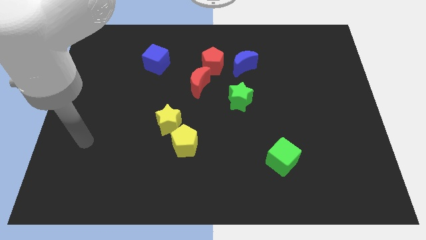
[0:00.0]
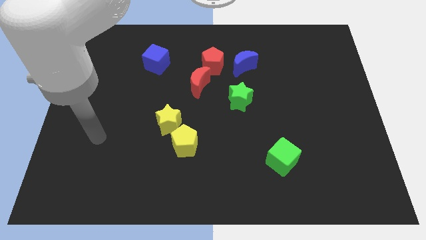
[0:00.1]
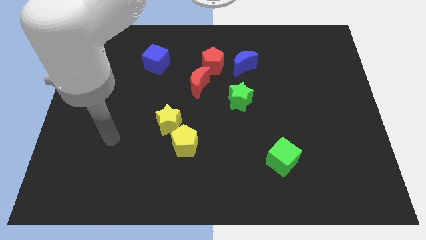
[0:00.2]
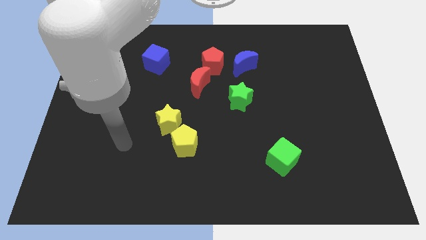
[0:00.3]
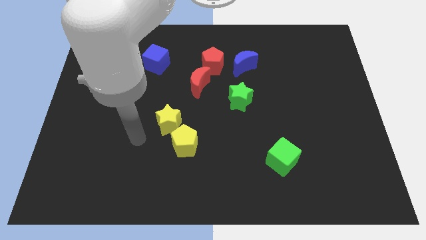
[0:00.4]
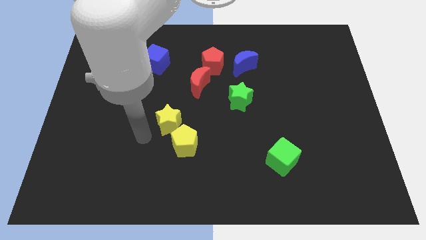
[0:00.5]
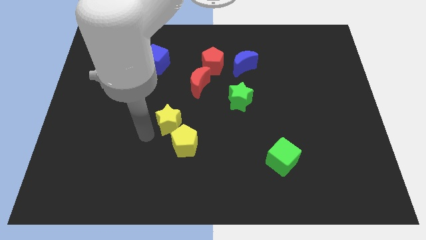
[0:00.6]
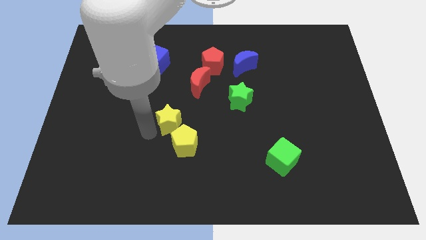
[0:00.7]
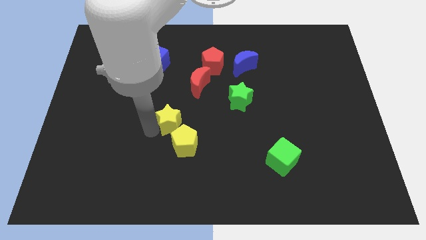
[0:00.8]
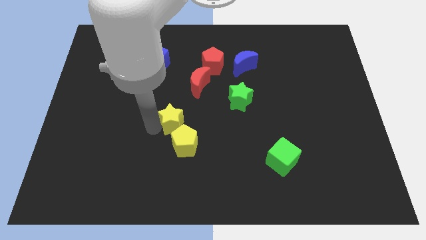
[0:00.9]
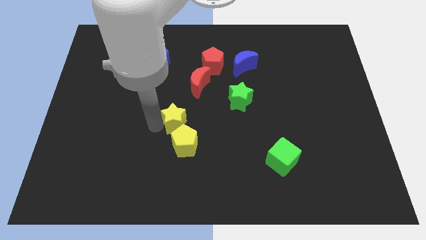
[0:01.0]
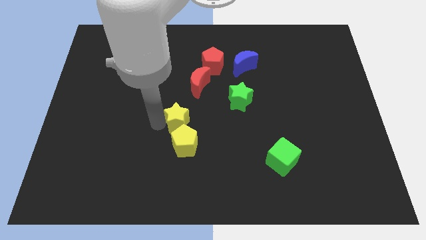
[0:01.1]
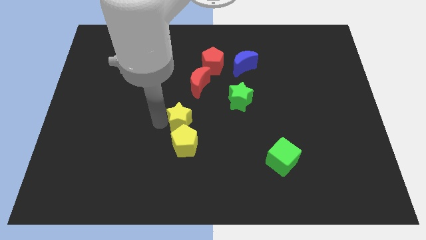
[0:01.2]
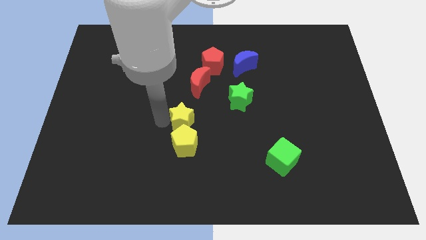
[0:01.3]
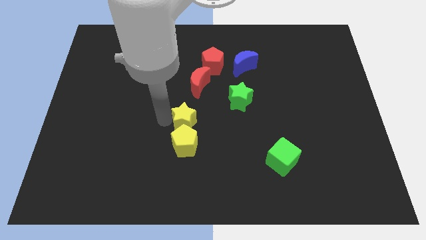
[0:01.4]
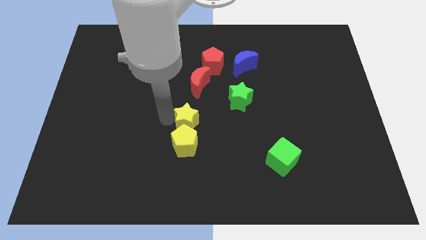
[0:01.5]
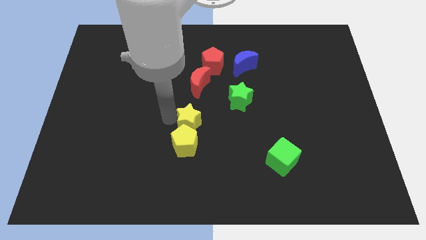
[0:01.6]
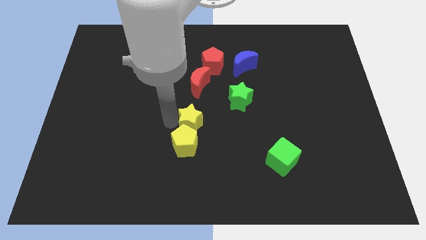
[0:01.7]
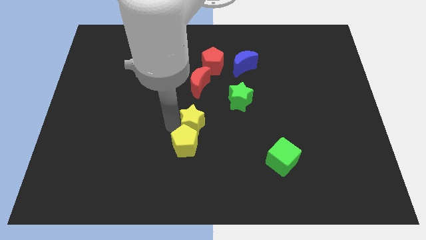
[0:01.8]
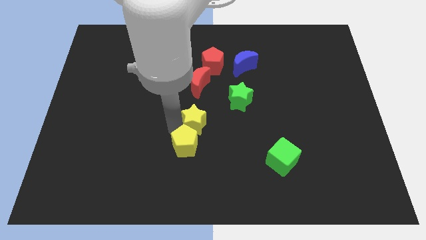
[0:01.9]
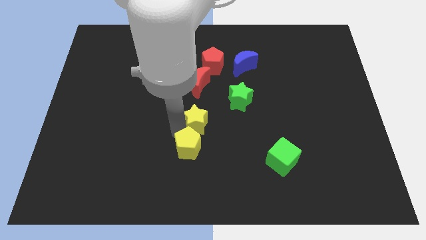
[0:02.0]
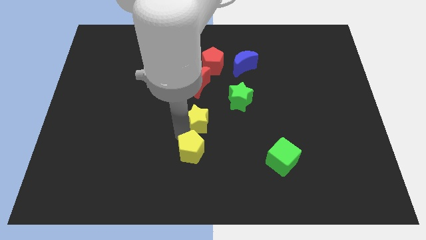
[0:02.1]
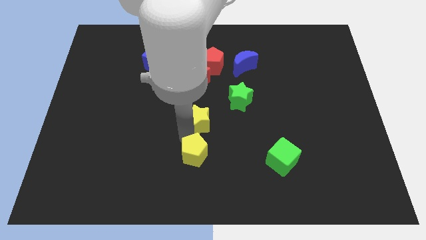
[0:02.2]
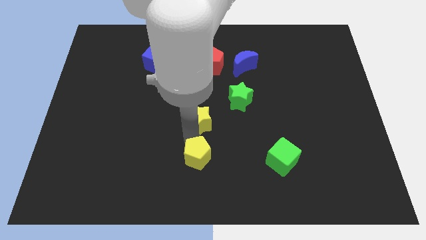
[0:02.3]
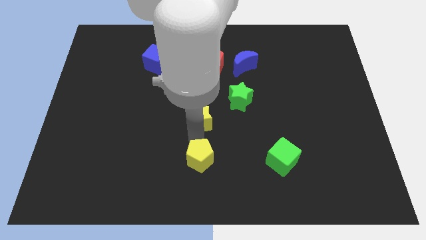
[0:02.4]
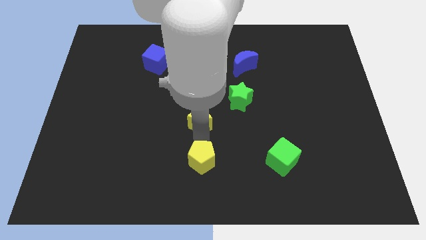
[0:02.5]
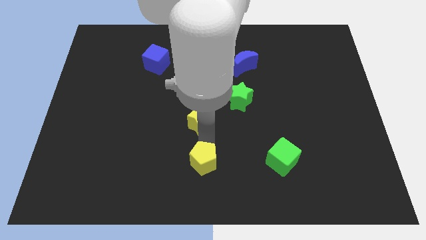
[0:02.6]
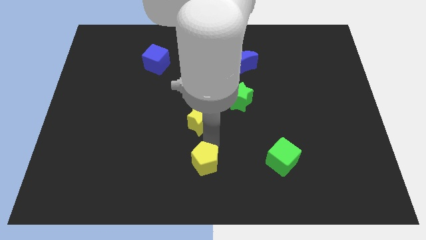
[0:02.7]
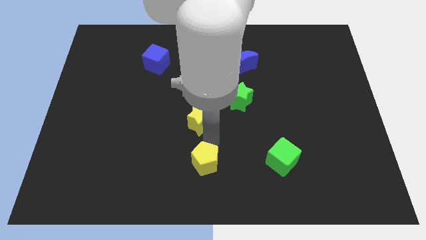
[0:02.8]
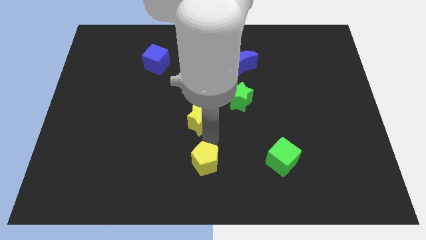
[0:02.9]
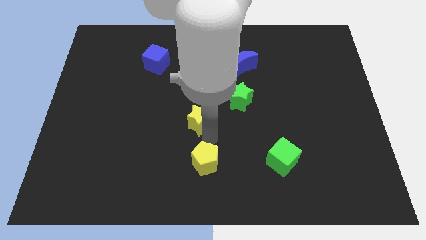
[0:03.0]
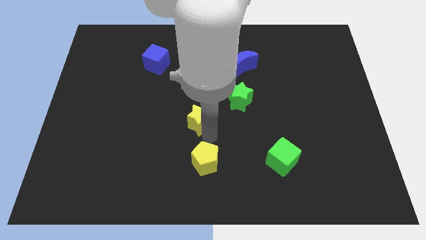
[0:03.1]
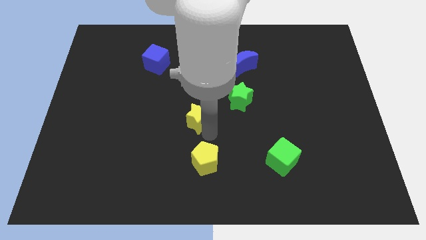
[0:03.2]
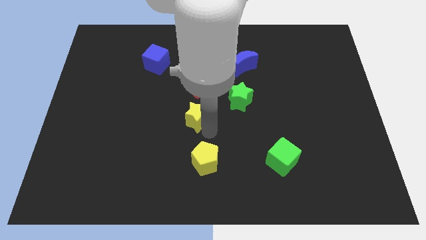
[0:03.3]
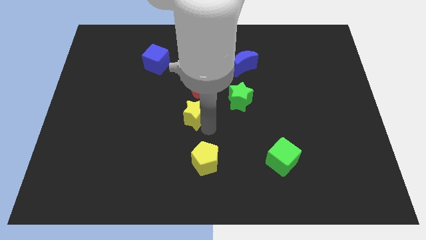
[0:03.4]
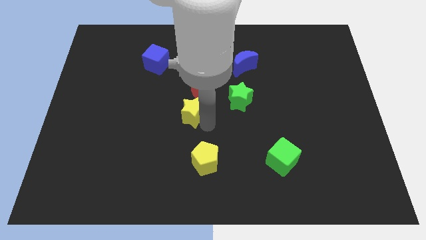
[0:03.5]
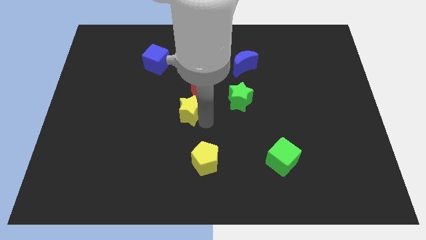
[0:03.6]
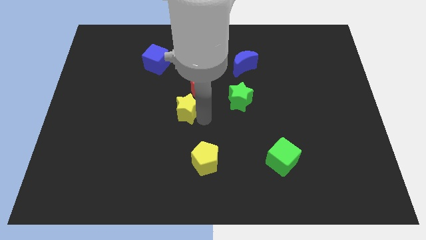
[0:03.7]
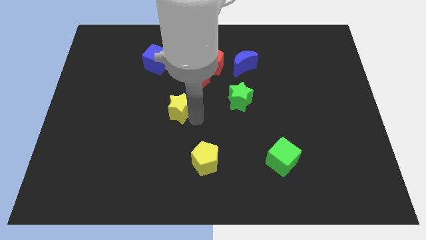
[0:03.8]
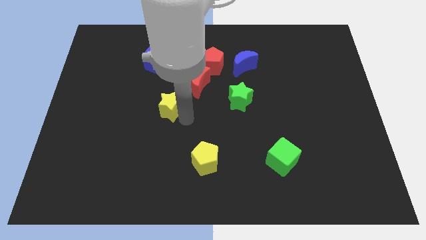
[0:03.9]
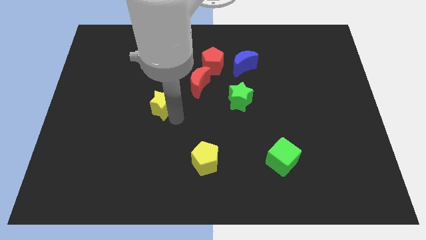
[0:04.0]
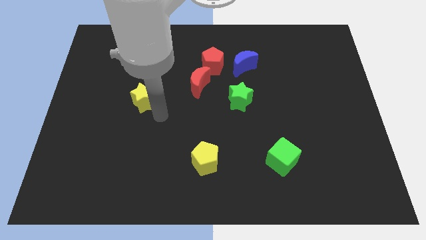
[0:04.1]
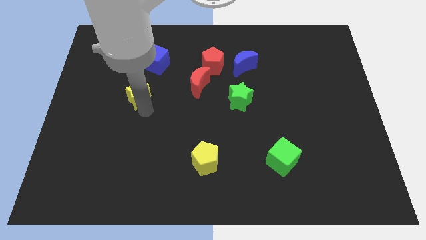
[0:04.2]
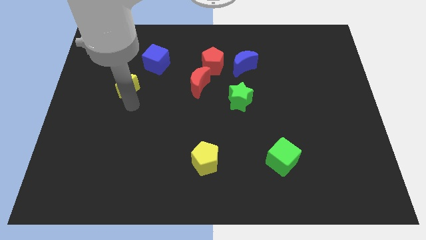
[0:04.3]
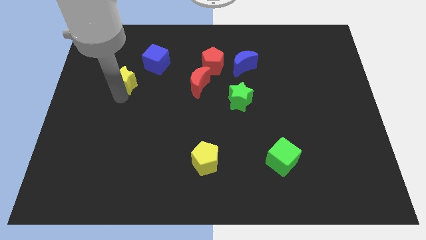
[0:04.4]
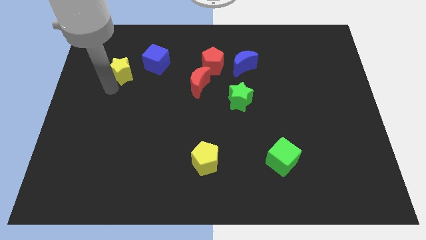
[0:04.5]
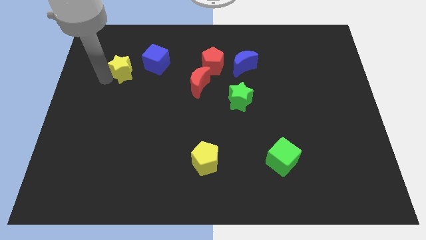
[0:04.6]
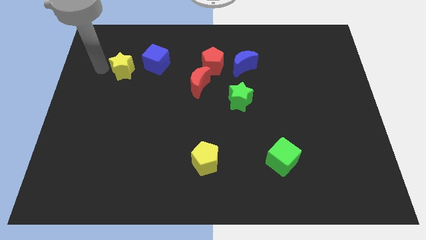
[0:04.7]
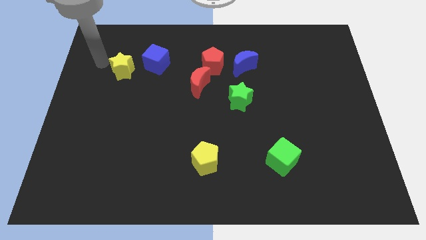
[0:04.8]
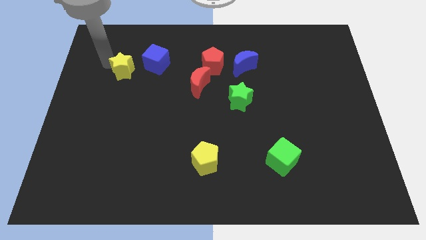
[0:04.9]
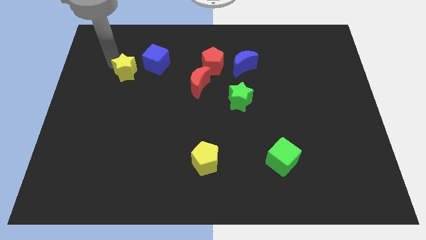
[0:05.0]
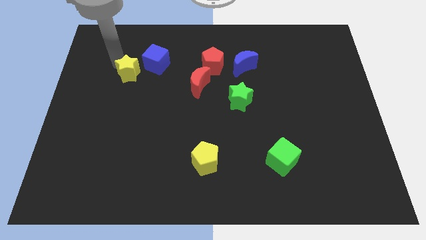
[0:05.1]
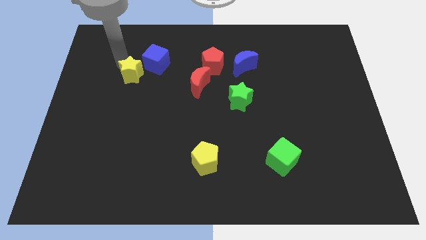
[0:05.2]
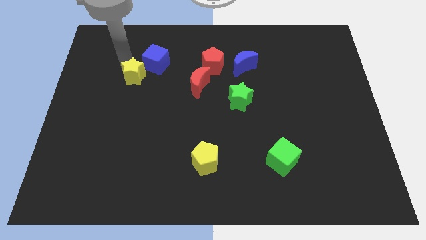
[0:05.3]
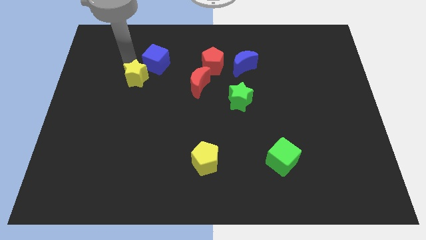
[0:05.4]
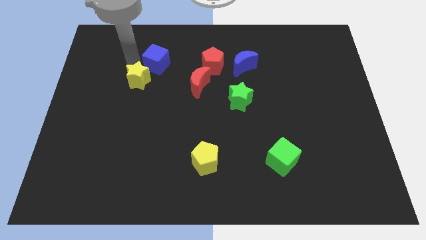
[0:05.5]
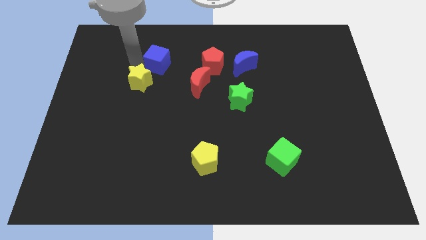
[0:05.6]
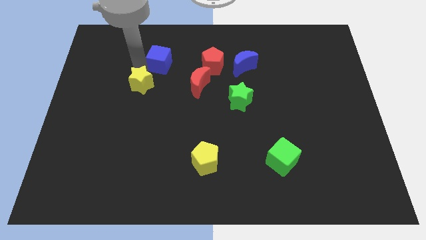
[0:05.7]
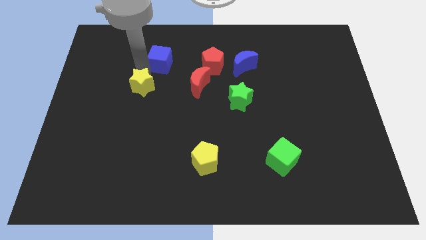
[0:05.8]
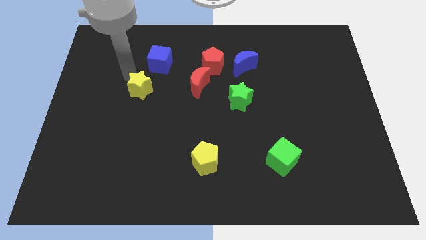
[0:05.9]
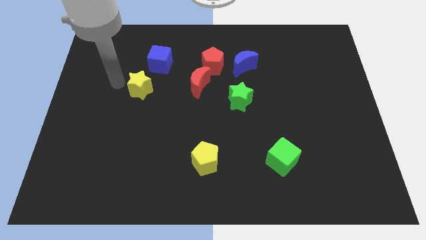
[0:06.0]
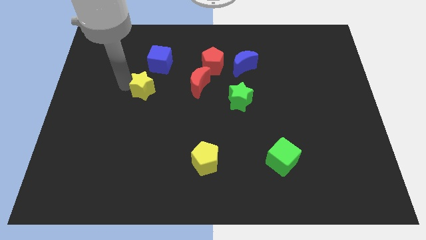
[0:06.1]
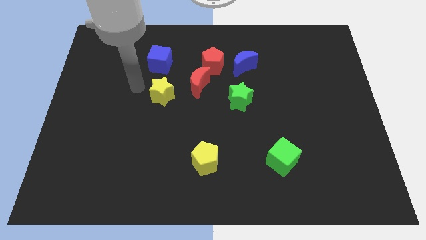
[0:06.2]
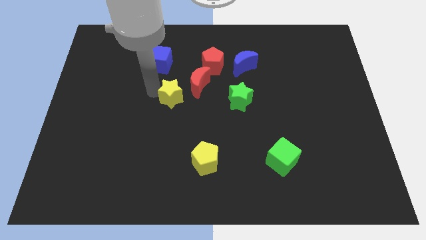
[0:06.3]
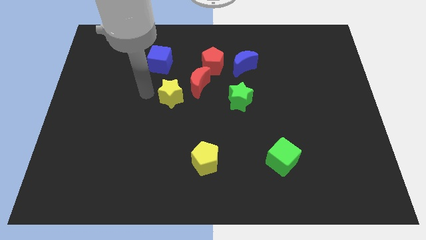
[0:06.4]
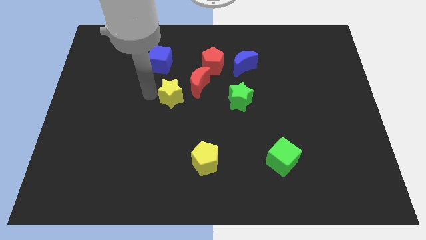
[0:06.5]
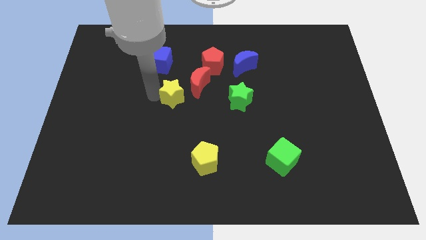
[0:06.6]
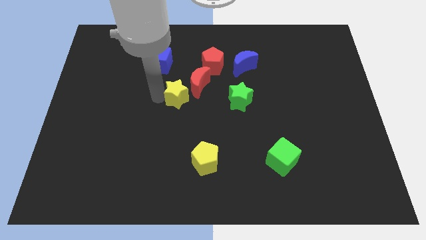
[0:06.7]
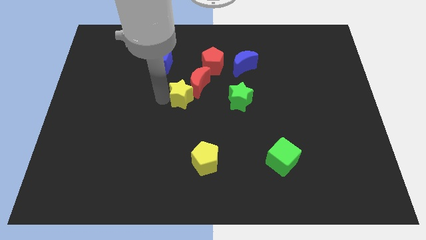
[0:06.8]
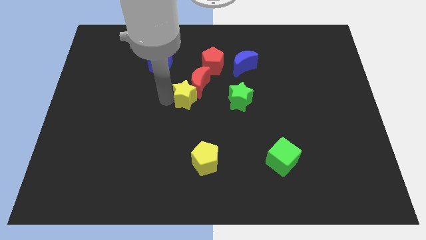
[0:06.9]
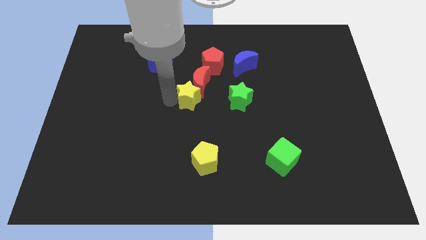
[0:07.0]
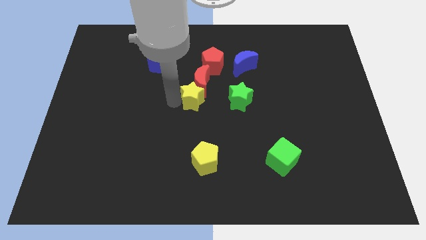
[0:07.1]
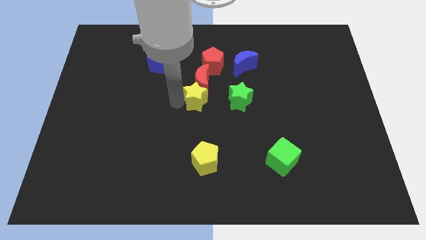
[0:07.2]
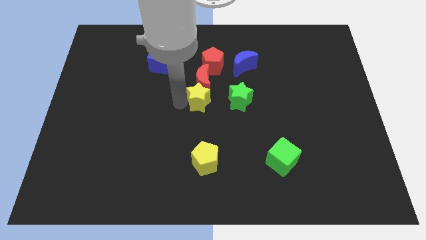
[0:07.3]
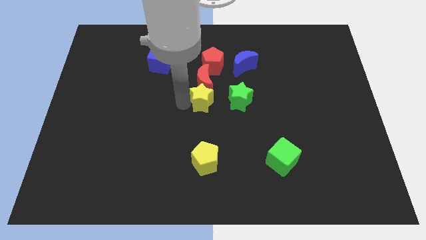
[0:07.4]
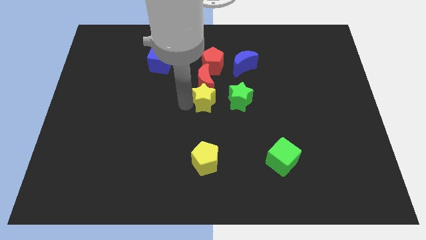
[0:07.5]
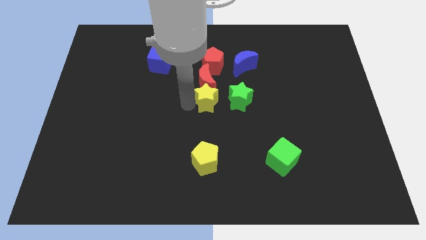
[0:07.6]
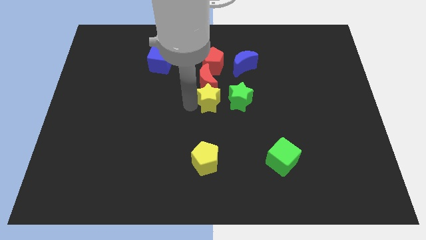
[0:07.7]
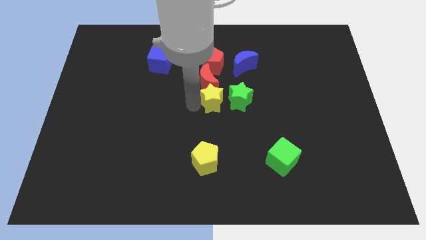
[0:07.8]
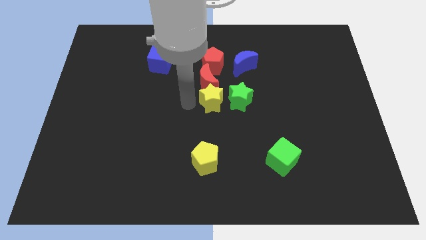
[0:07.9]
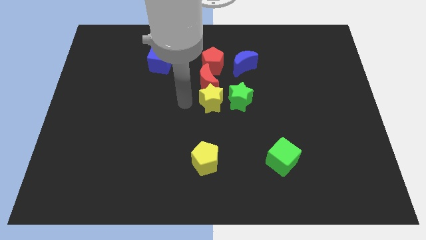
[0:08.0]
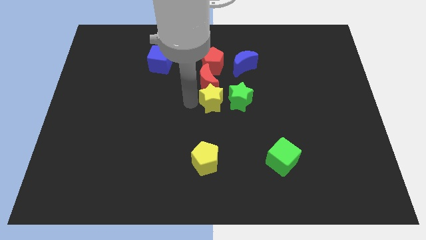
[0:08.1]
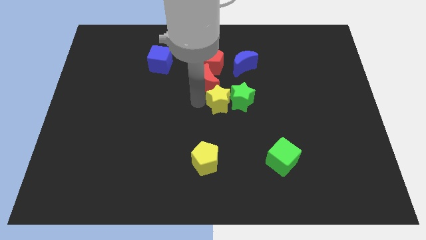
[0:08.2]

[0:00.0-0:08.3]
push the yellow star close to the green star
